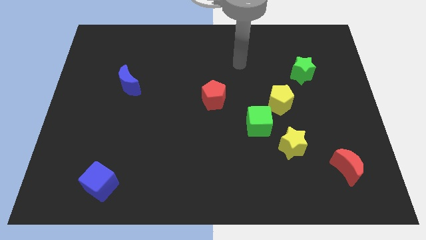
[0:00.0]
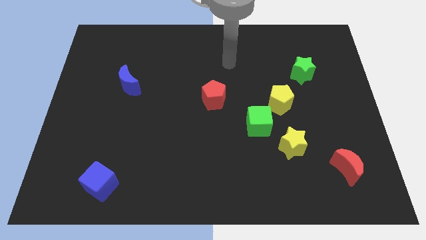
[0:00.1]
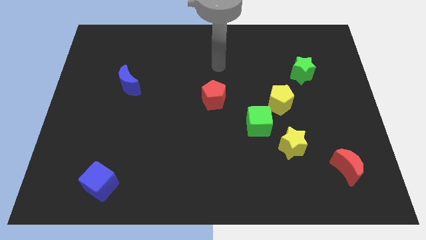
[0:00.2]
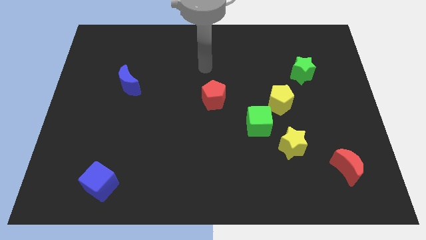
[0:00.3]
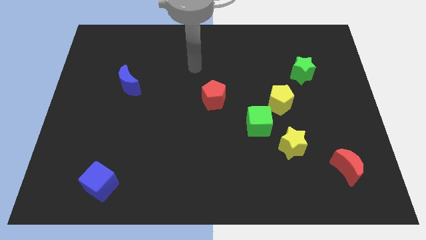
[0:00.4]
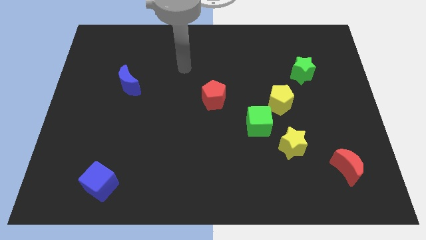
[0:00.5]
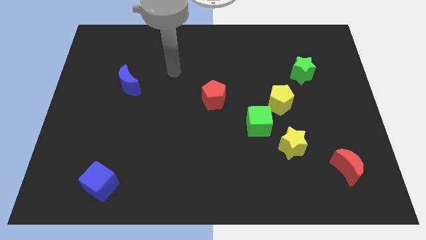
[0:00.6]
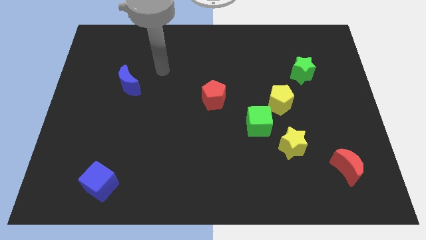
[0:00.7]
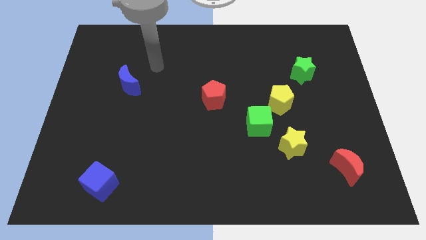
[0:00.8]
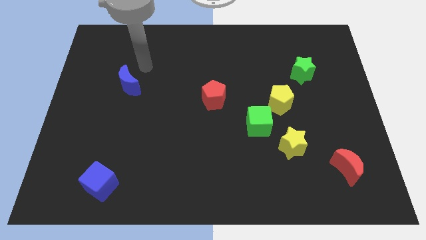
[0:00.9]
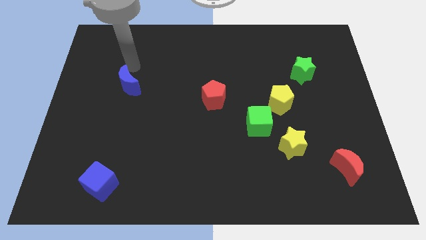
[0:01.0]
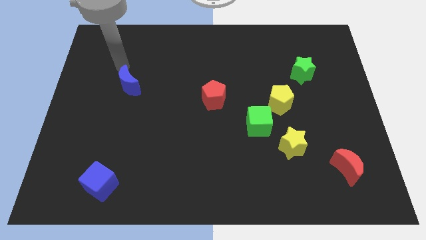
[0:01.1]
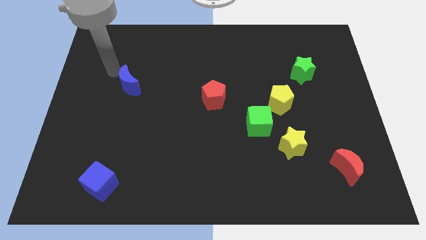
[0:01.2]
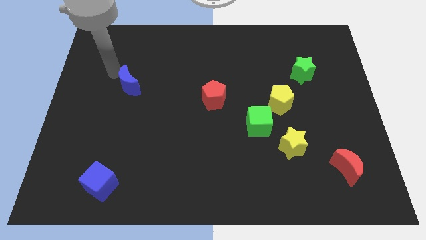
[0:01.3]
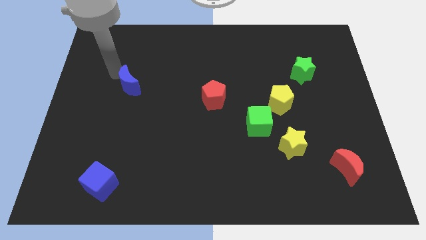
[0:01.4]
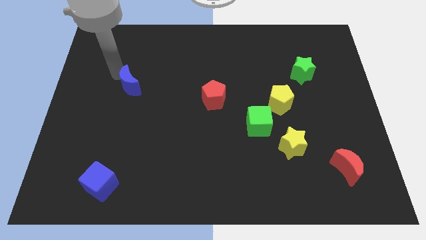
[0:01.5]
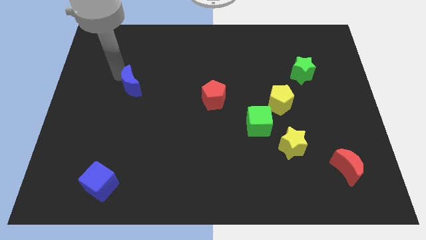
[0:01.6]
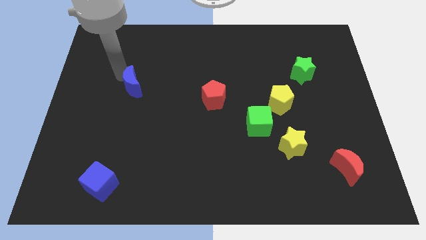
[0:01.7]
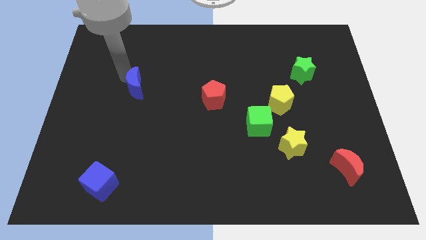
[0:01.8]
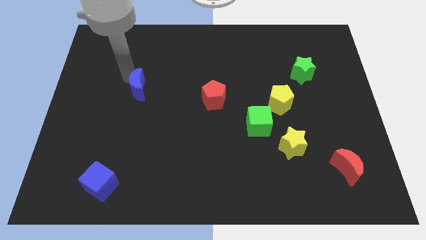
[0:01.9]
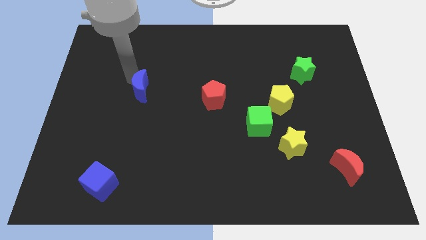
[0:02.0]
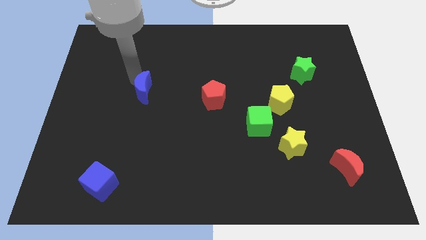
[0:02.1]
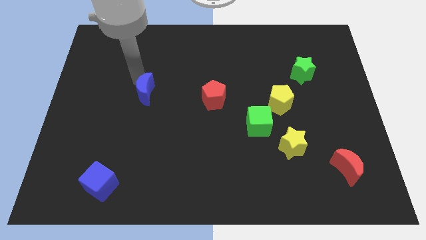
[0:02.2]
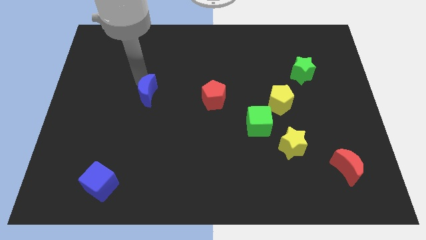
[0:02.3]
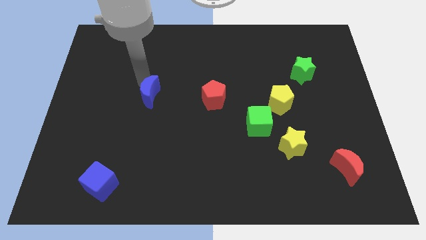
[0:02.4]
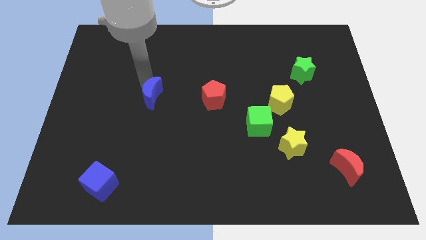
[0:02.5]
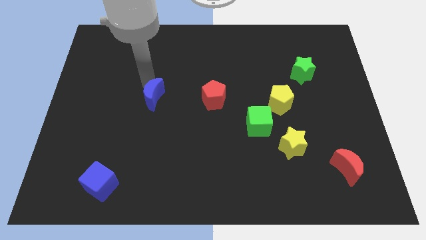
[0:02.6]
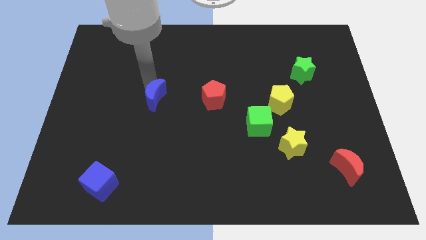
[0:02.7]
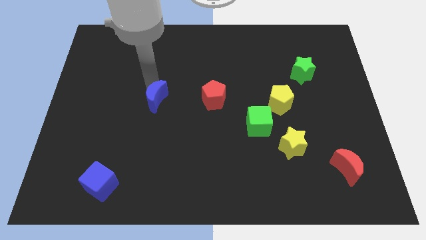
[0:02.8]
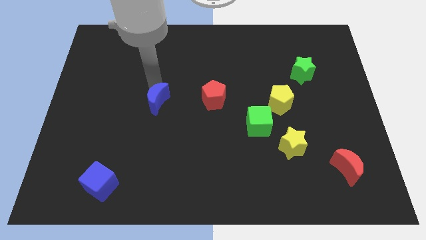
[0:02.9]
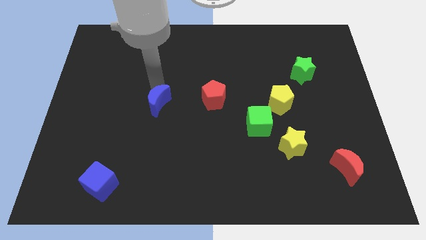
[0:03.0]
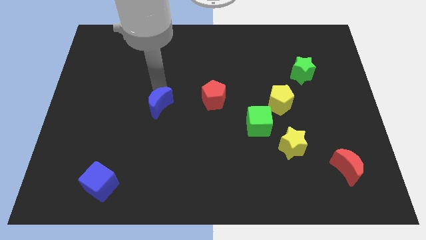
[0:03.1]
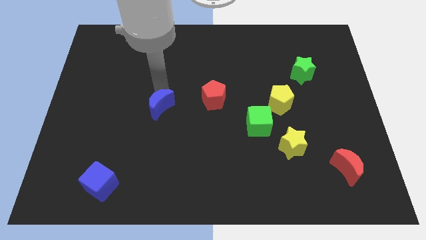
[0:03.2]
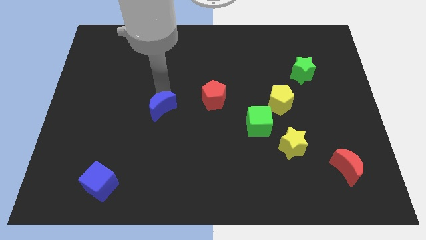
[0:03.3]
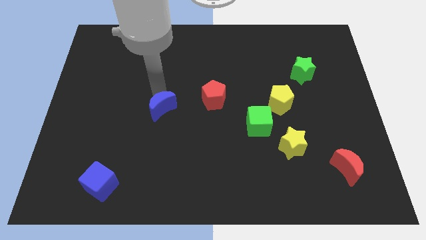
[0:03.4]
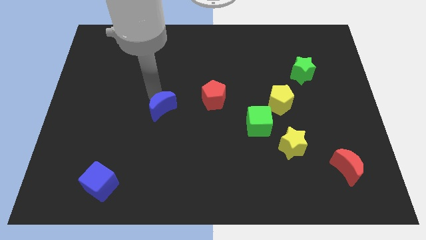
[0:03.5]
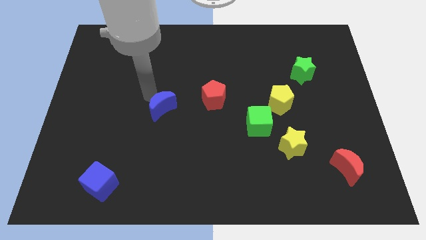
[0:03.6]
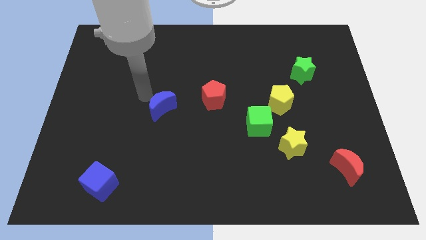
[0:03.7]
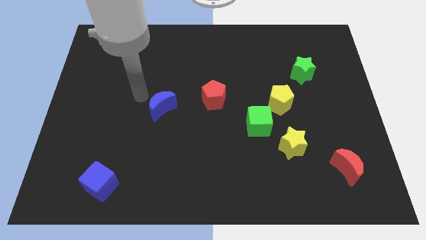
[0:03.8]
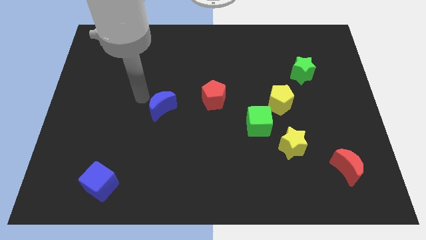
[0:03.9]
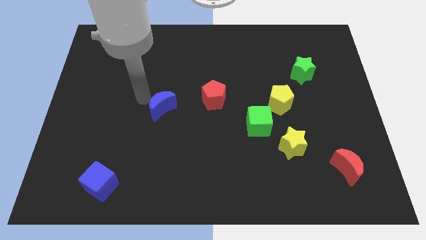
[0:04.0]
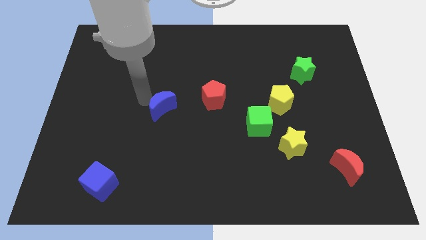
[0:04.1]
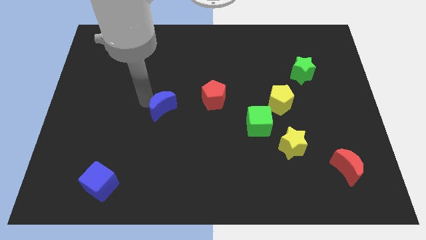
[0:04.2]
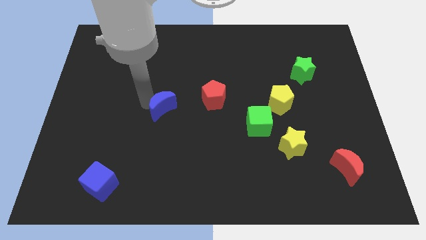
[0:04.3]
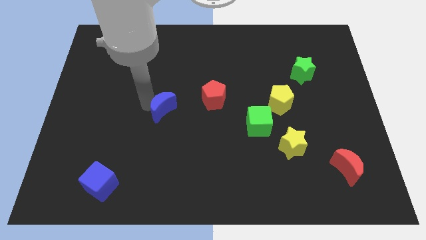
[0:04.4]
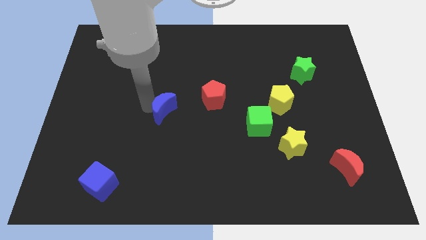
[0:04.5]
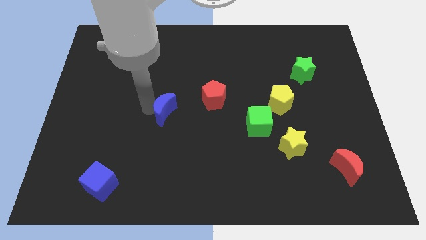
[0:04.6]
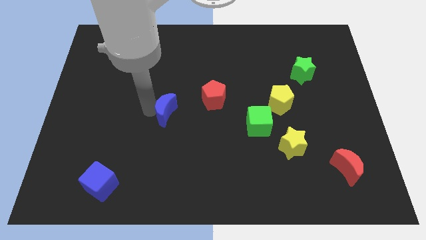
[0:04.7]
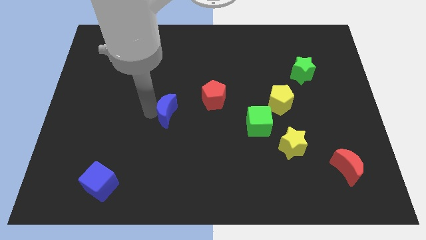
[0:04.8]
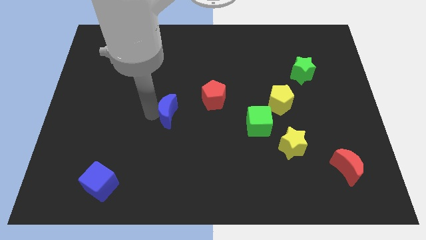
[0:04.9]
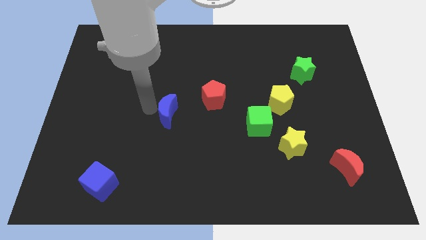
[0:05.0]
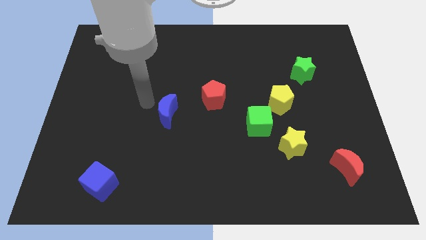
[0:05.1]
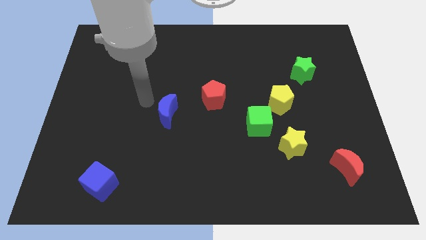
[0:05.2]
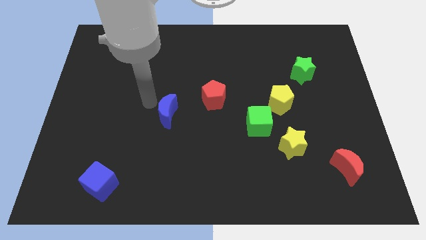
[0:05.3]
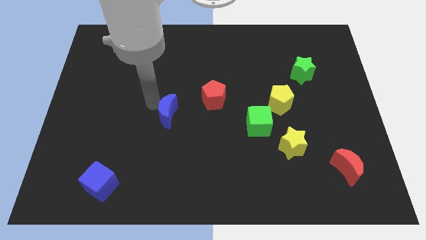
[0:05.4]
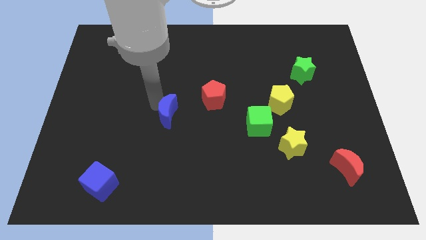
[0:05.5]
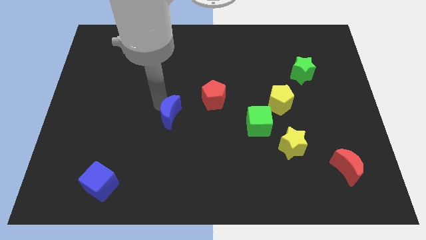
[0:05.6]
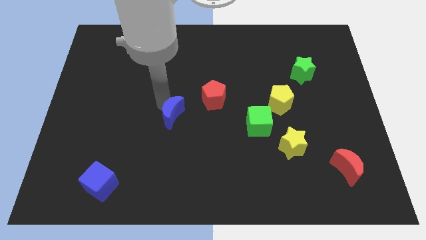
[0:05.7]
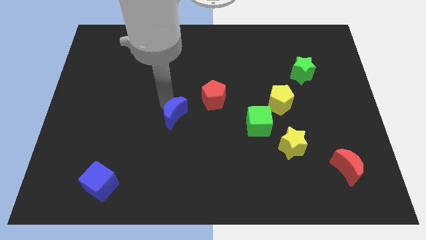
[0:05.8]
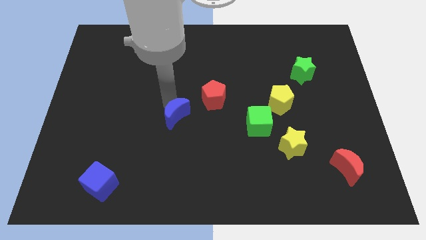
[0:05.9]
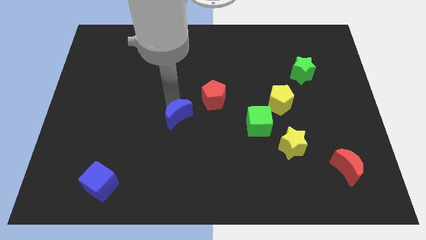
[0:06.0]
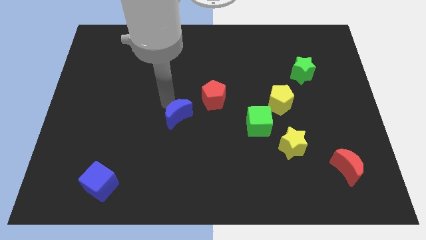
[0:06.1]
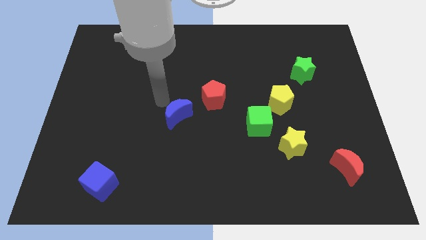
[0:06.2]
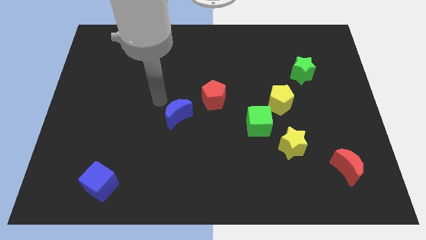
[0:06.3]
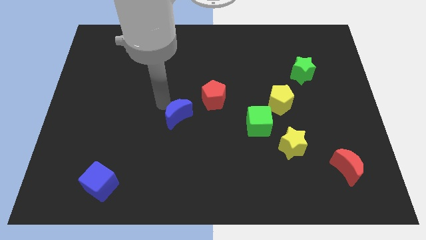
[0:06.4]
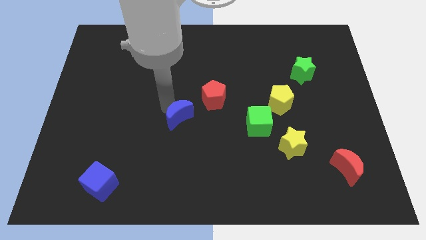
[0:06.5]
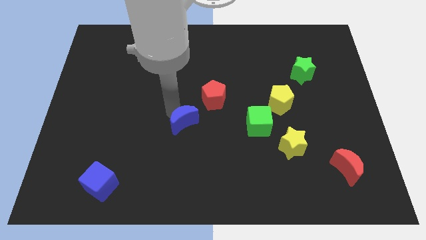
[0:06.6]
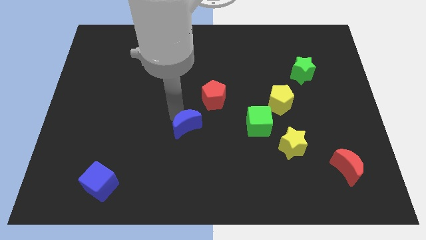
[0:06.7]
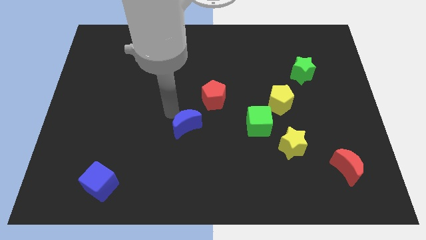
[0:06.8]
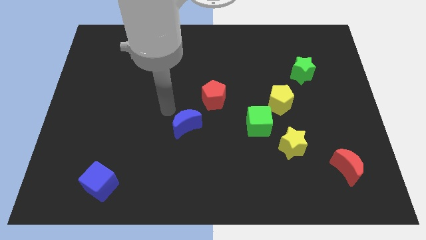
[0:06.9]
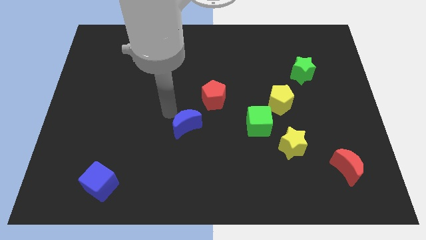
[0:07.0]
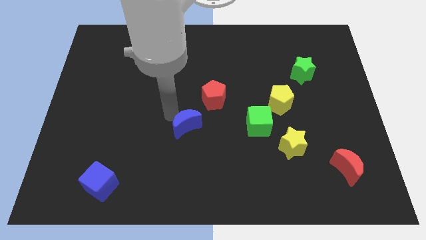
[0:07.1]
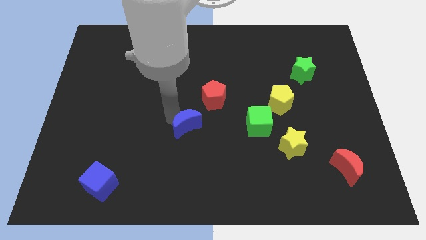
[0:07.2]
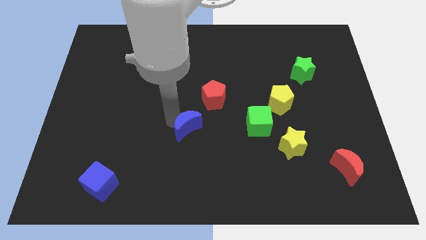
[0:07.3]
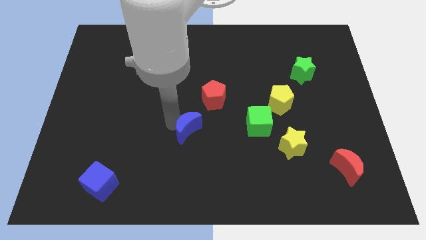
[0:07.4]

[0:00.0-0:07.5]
slide the blue moon down and then right

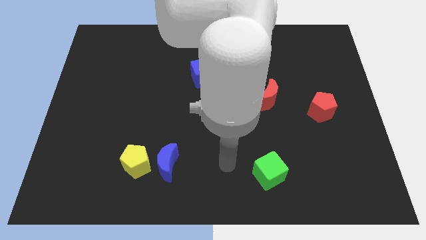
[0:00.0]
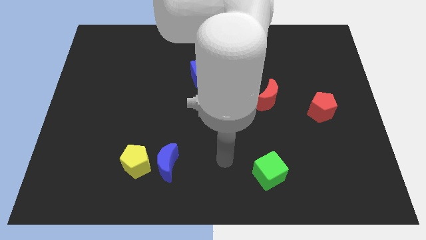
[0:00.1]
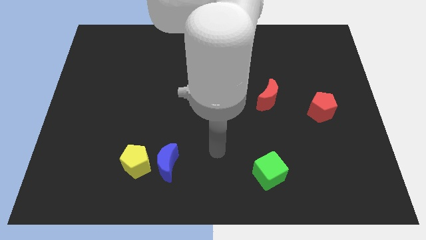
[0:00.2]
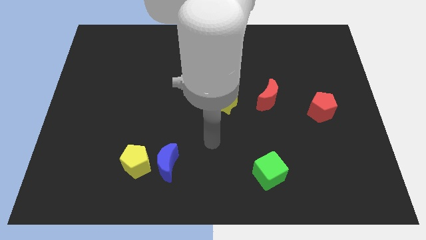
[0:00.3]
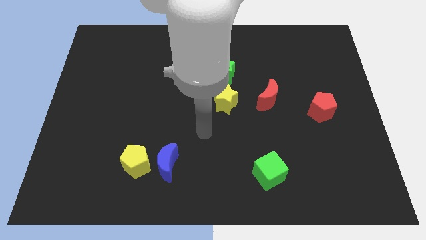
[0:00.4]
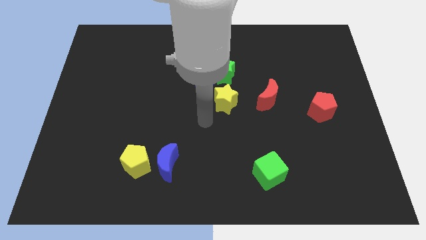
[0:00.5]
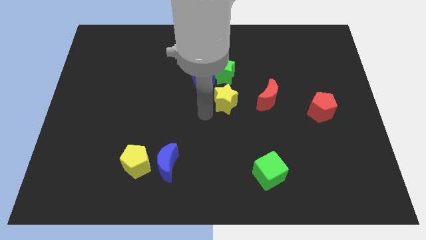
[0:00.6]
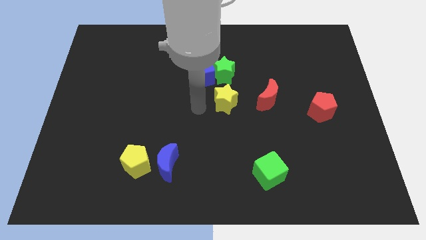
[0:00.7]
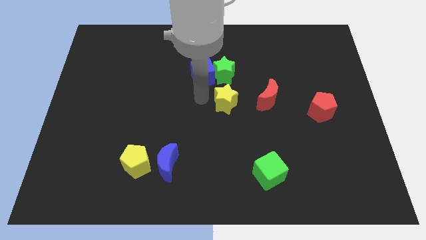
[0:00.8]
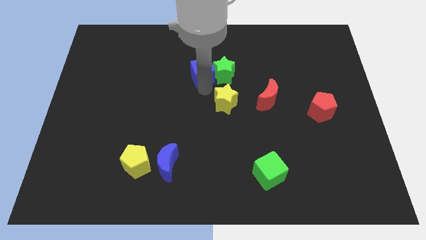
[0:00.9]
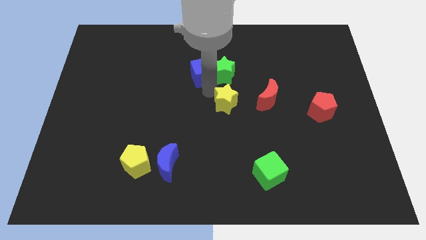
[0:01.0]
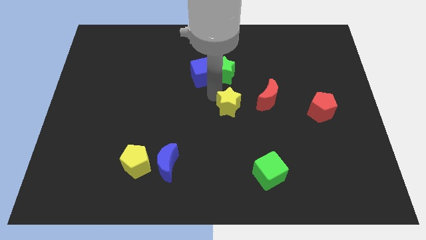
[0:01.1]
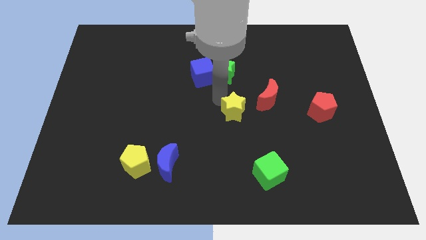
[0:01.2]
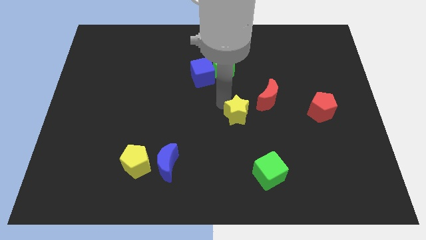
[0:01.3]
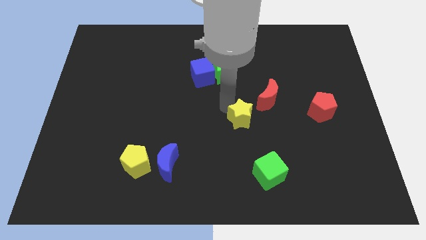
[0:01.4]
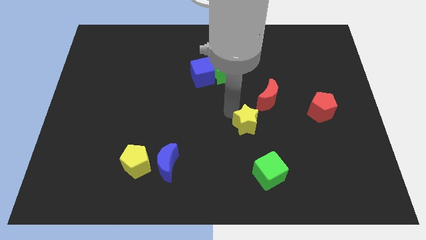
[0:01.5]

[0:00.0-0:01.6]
push the yellow star a bit diagonally downwards and to the right
